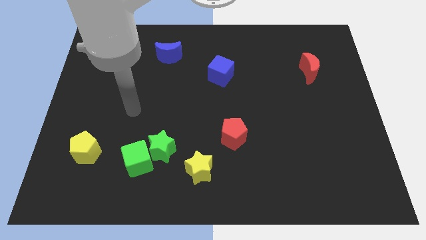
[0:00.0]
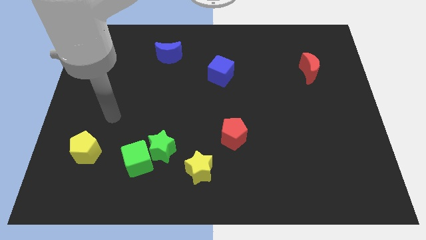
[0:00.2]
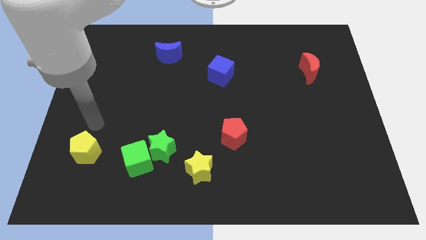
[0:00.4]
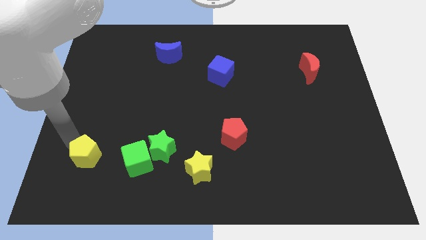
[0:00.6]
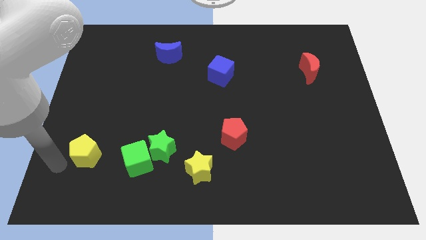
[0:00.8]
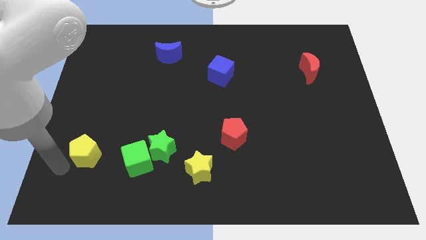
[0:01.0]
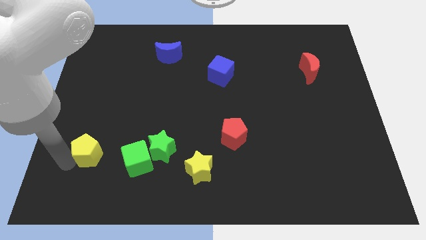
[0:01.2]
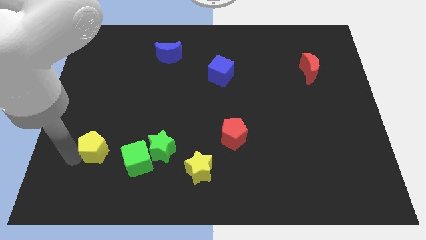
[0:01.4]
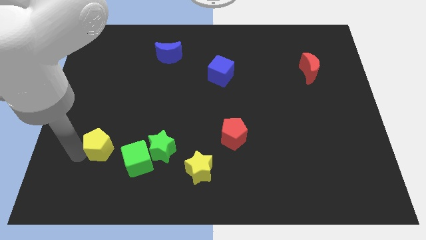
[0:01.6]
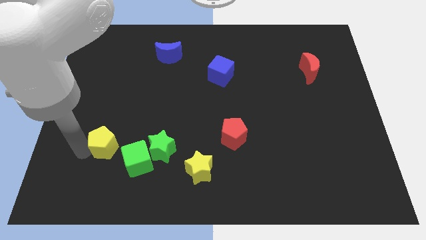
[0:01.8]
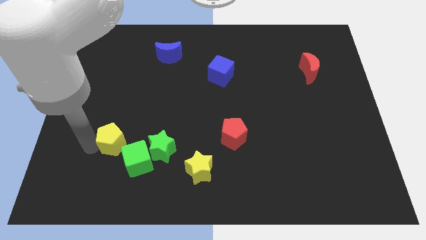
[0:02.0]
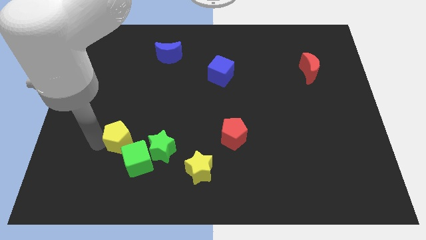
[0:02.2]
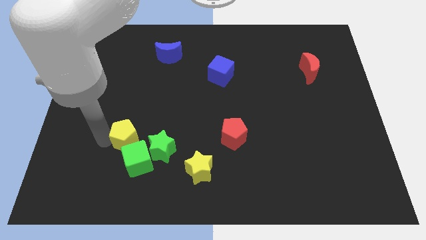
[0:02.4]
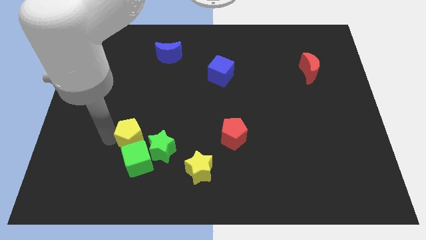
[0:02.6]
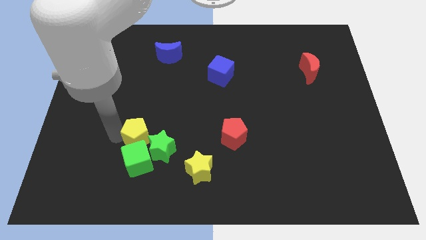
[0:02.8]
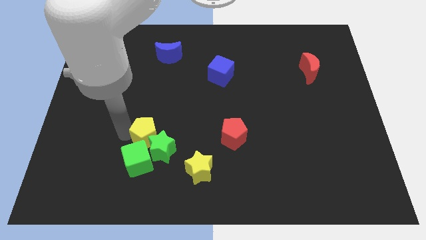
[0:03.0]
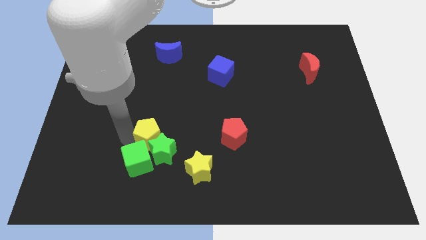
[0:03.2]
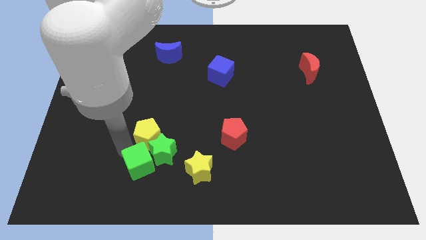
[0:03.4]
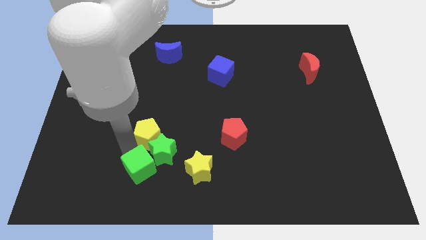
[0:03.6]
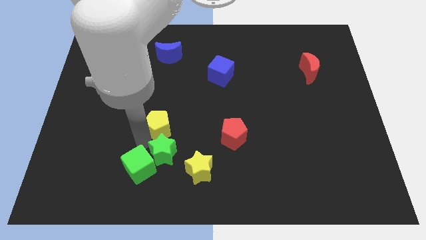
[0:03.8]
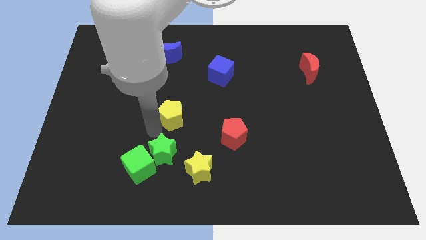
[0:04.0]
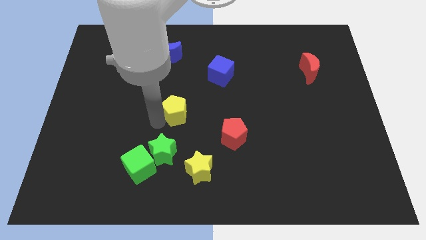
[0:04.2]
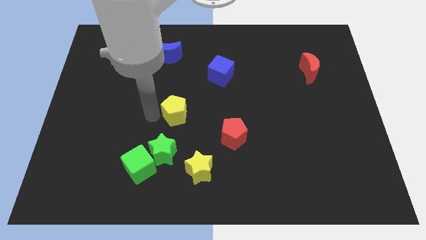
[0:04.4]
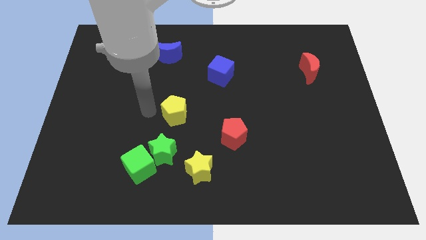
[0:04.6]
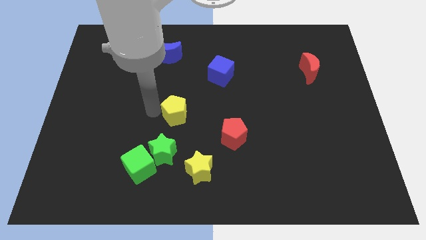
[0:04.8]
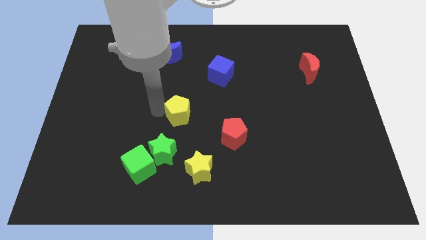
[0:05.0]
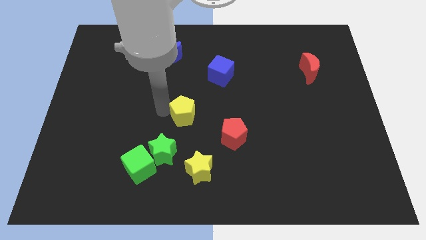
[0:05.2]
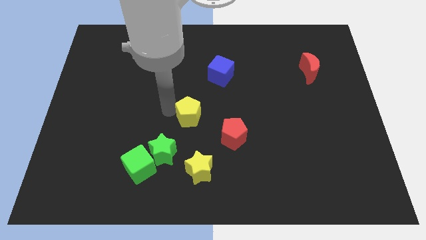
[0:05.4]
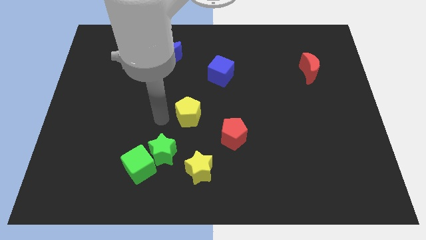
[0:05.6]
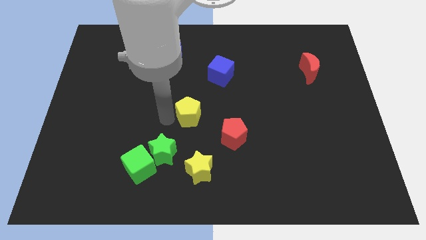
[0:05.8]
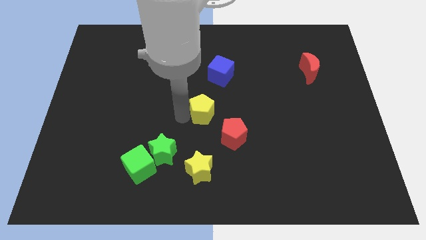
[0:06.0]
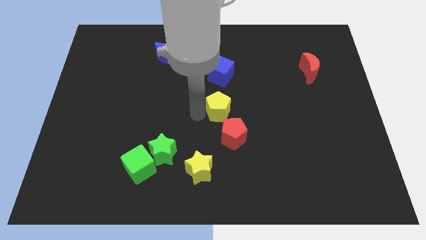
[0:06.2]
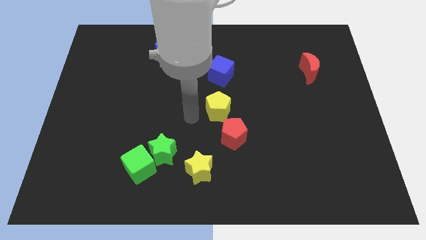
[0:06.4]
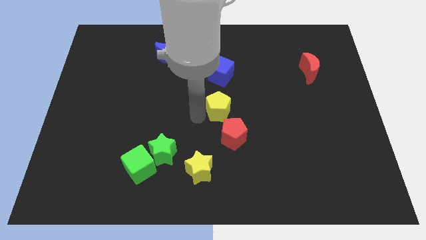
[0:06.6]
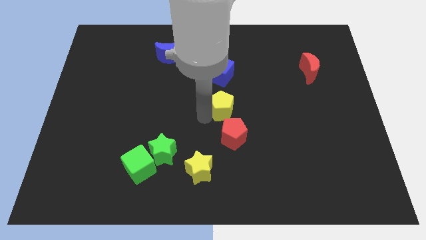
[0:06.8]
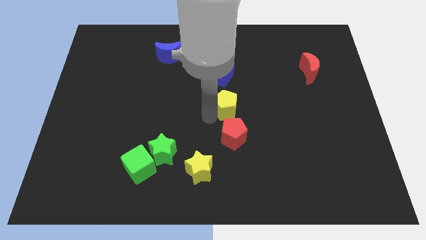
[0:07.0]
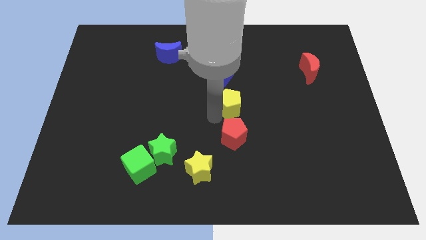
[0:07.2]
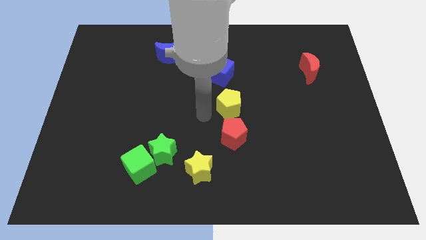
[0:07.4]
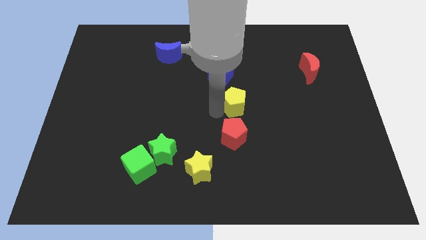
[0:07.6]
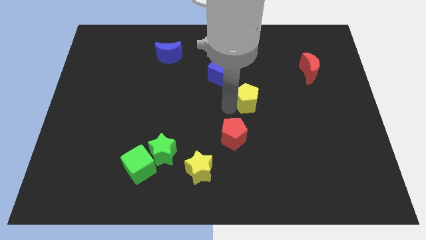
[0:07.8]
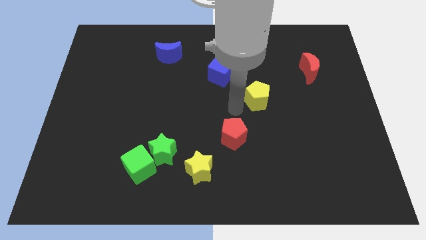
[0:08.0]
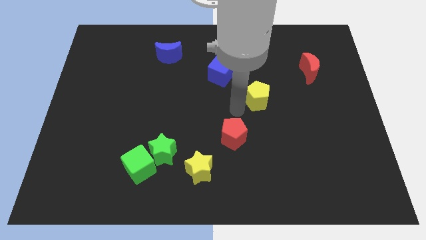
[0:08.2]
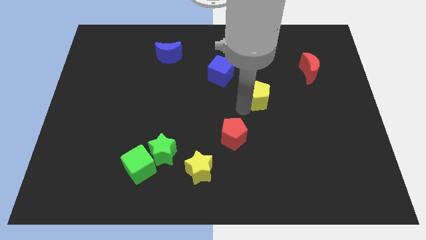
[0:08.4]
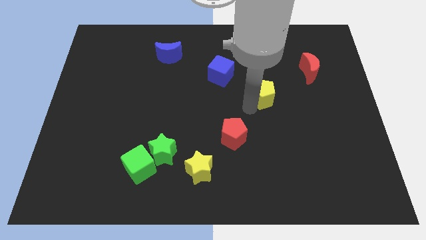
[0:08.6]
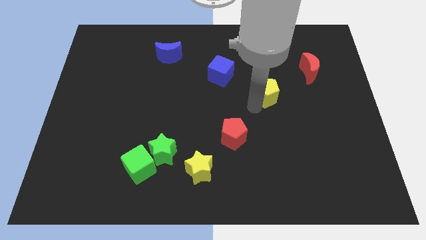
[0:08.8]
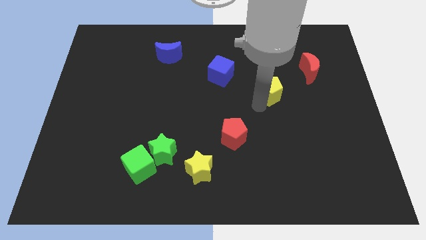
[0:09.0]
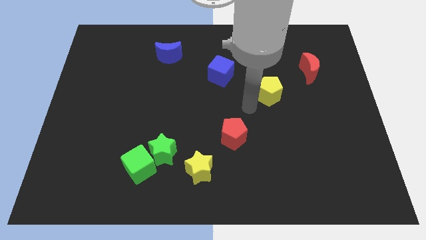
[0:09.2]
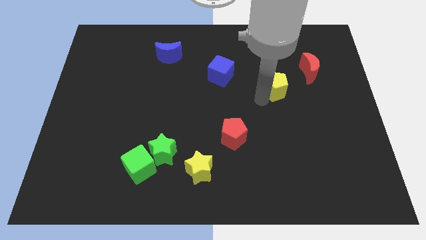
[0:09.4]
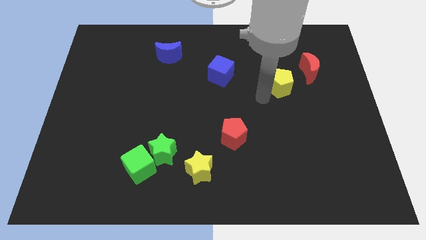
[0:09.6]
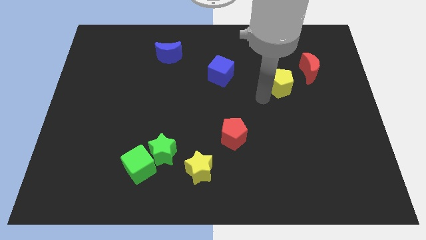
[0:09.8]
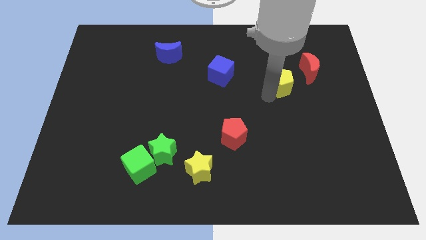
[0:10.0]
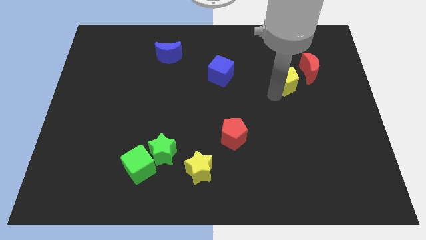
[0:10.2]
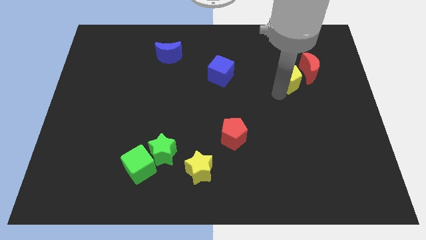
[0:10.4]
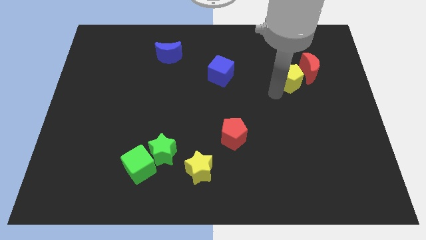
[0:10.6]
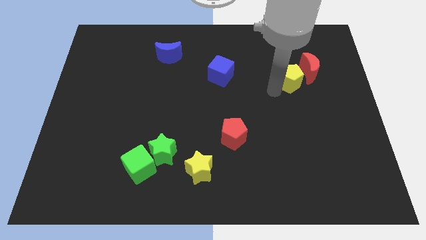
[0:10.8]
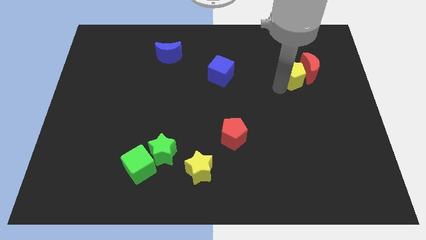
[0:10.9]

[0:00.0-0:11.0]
move the yellow pentagon to the red moon

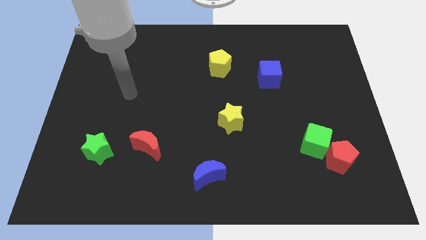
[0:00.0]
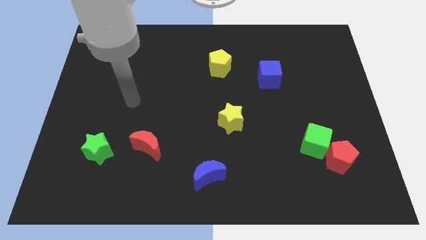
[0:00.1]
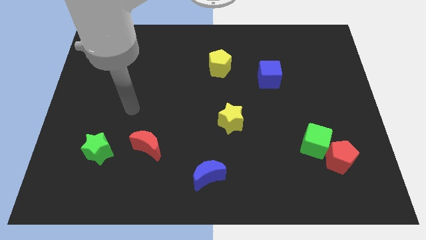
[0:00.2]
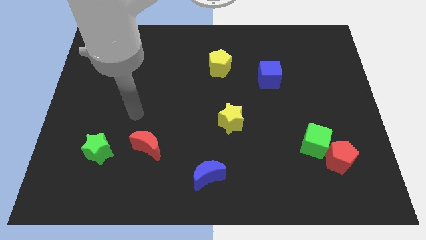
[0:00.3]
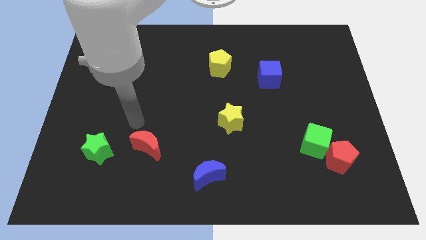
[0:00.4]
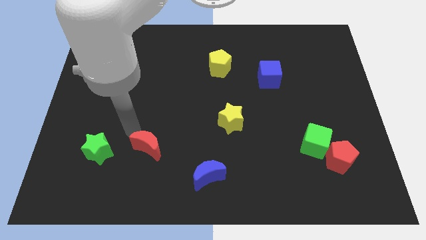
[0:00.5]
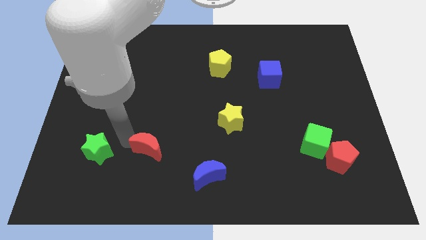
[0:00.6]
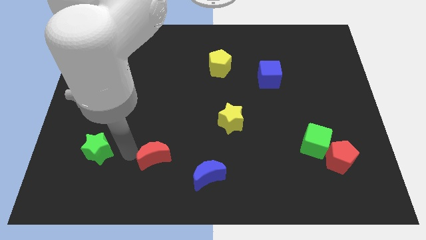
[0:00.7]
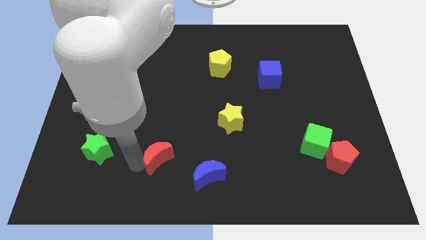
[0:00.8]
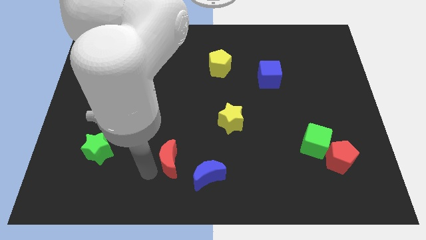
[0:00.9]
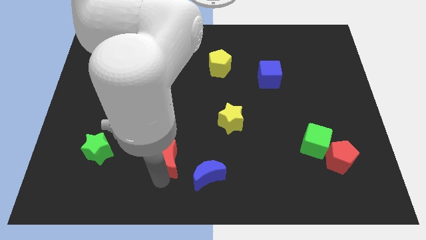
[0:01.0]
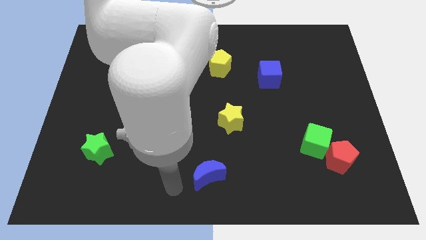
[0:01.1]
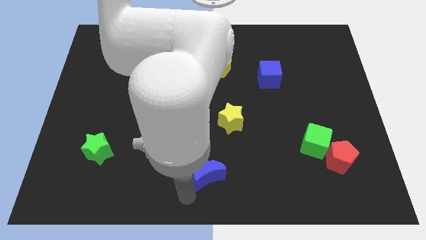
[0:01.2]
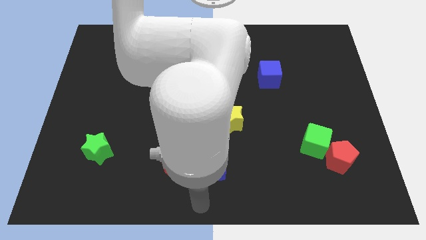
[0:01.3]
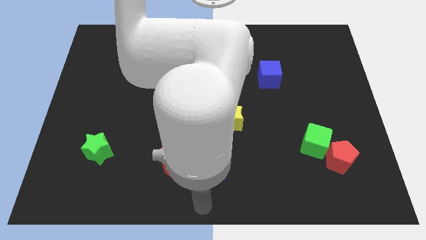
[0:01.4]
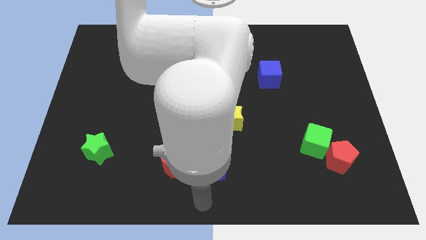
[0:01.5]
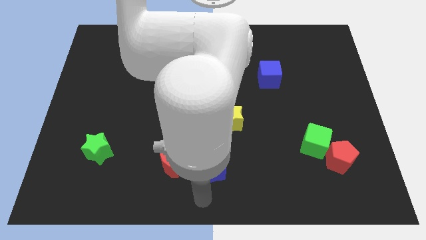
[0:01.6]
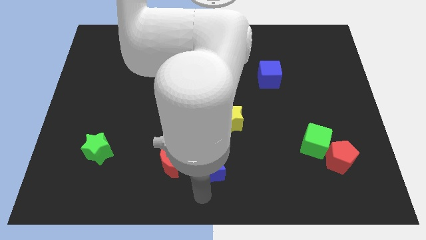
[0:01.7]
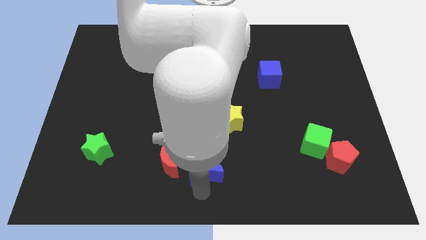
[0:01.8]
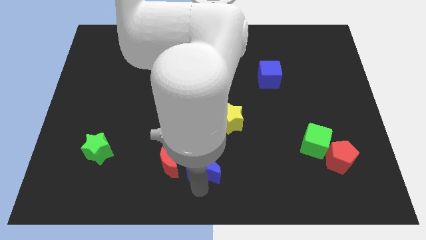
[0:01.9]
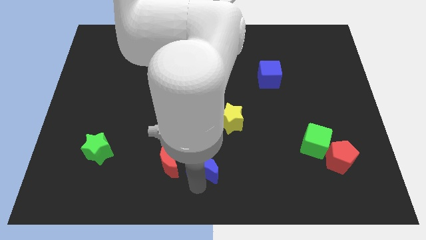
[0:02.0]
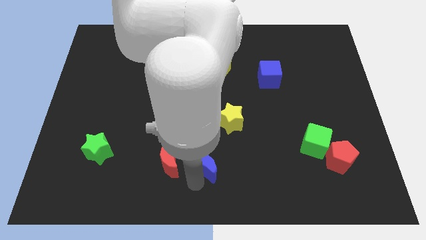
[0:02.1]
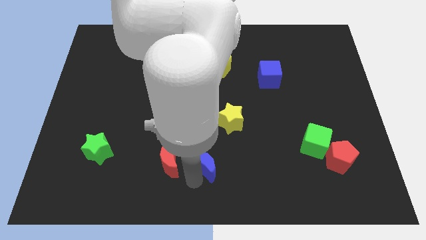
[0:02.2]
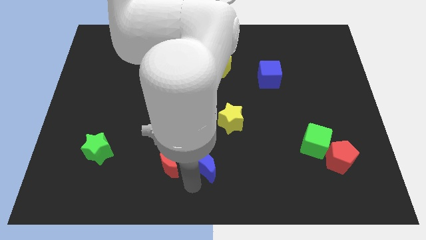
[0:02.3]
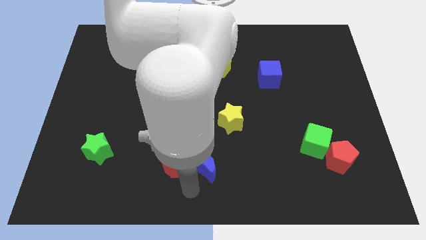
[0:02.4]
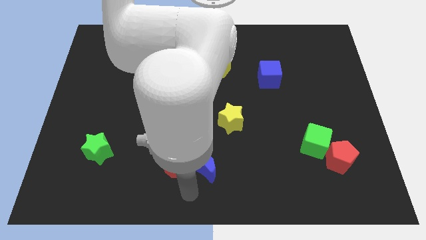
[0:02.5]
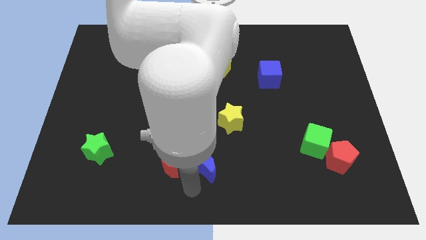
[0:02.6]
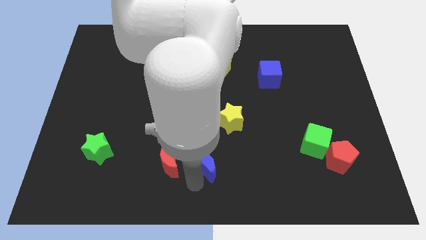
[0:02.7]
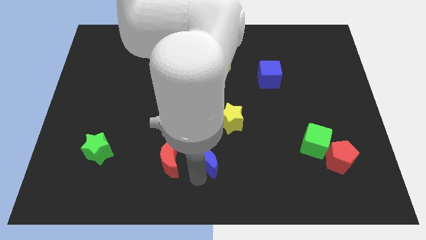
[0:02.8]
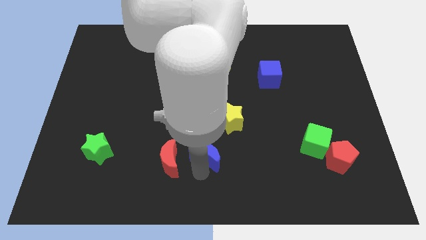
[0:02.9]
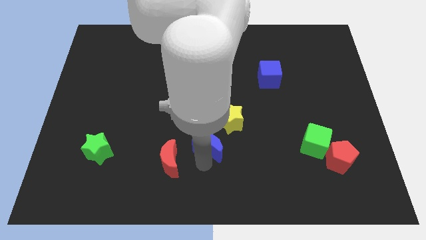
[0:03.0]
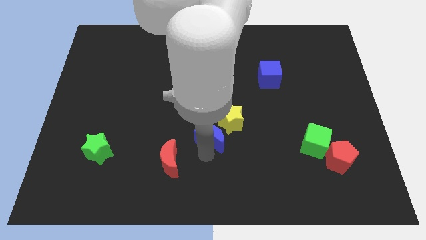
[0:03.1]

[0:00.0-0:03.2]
slide the blue moon close to the yellow star
